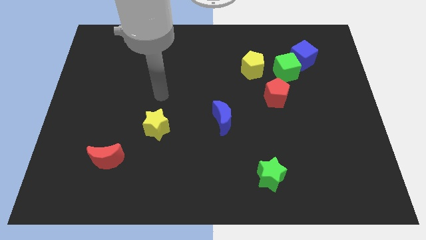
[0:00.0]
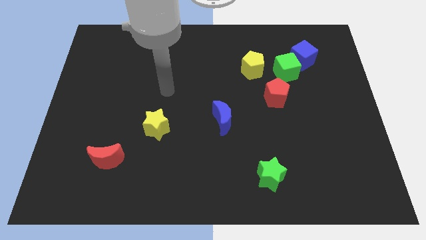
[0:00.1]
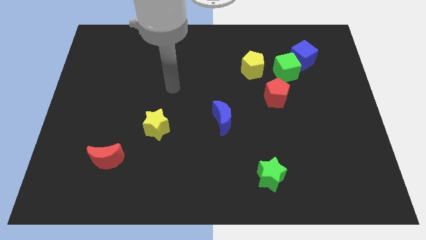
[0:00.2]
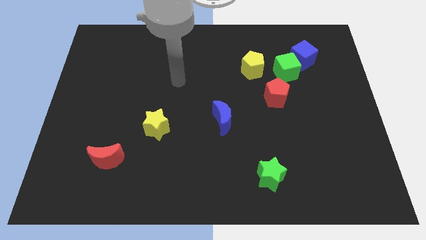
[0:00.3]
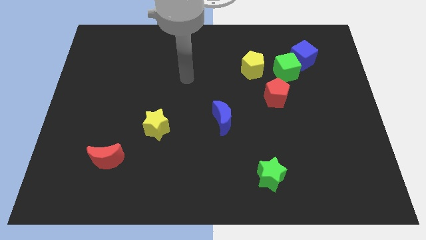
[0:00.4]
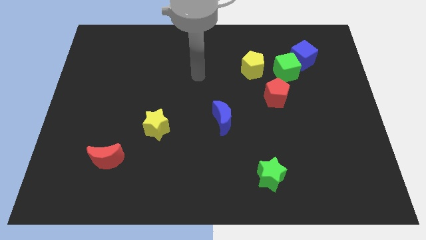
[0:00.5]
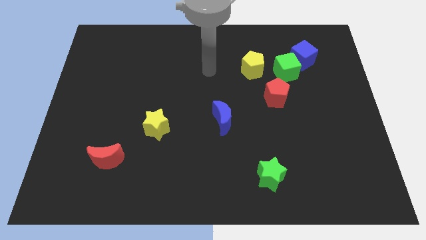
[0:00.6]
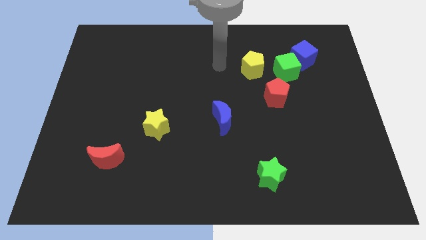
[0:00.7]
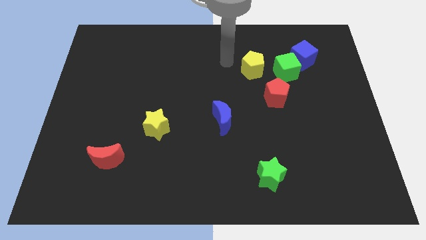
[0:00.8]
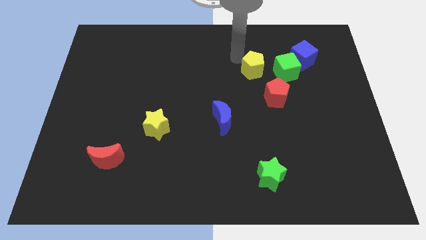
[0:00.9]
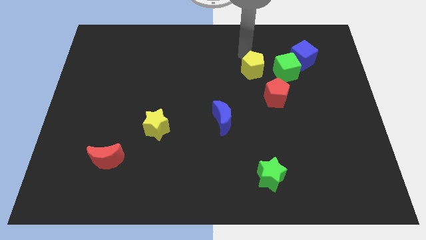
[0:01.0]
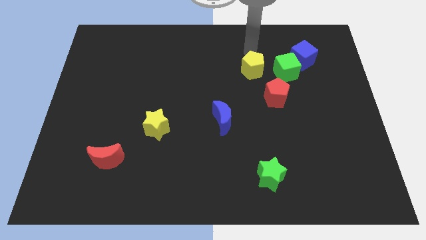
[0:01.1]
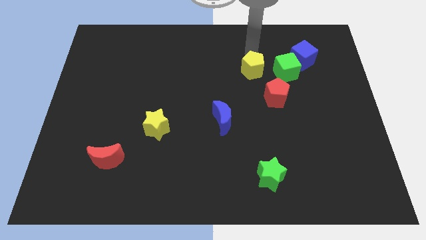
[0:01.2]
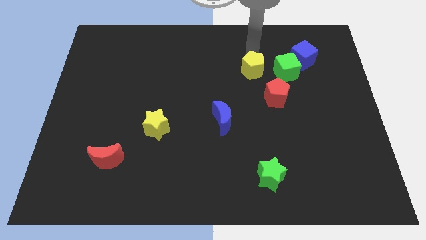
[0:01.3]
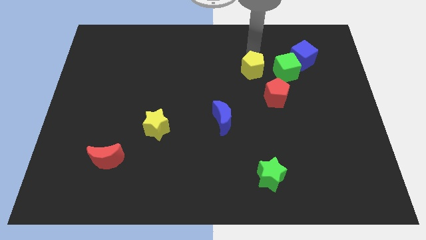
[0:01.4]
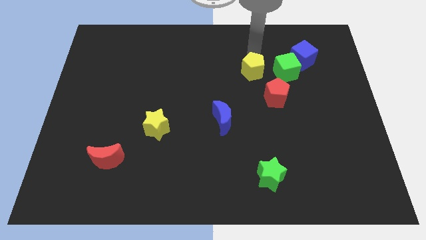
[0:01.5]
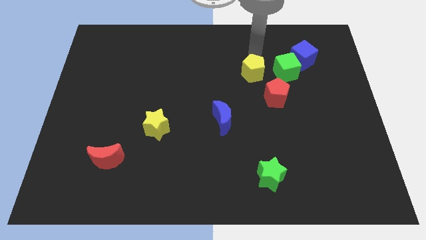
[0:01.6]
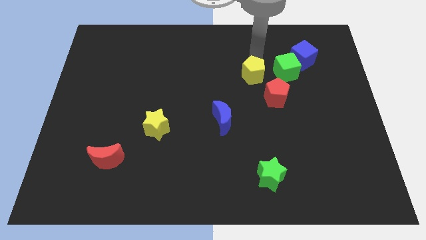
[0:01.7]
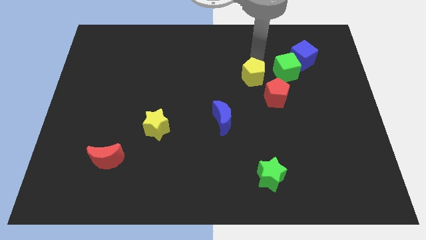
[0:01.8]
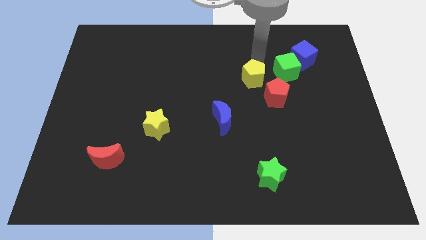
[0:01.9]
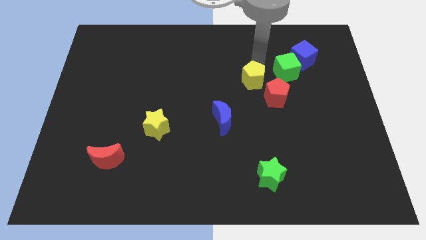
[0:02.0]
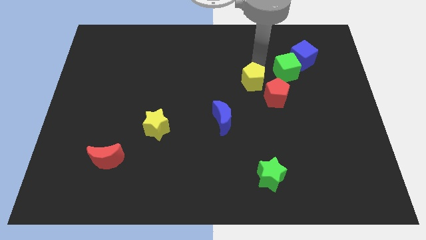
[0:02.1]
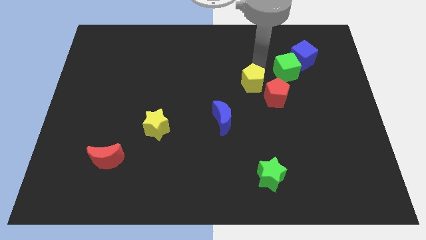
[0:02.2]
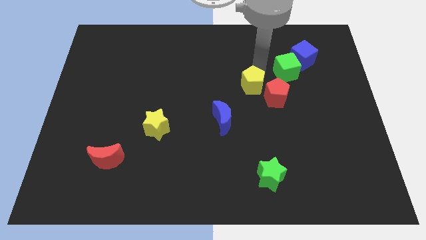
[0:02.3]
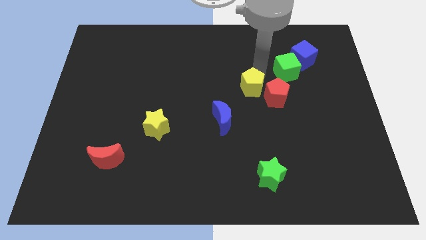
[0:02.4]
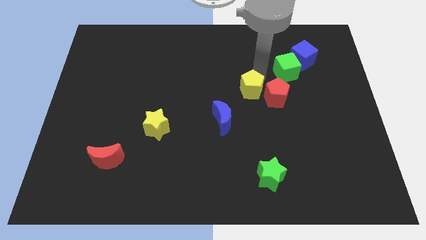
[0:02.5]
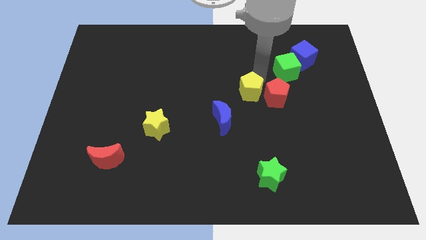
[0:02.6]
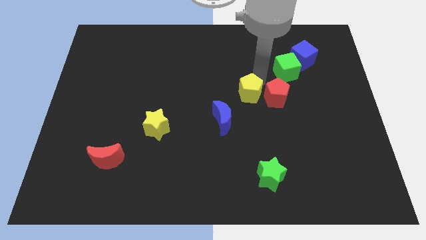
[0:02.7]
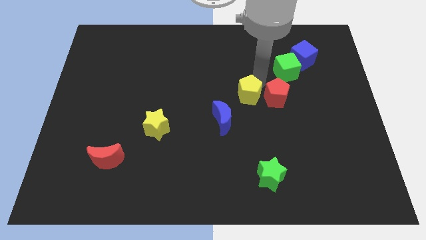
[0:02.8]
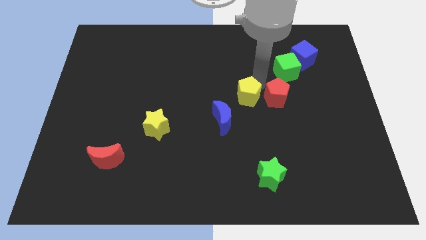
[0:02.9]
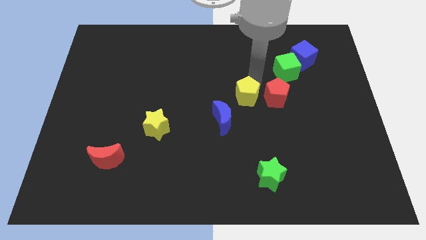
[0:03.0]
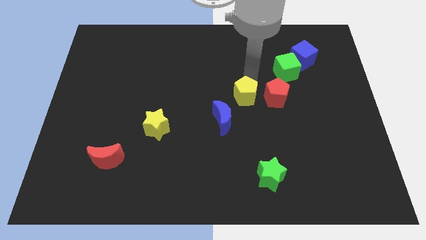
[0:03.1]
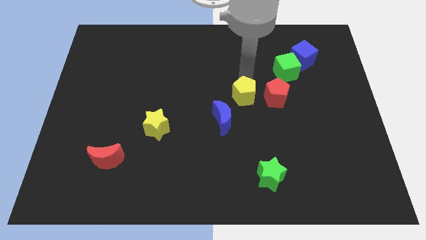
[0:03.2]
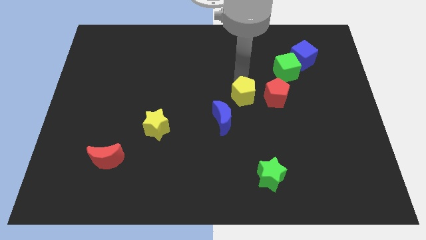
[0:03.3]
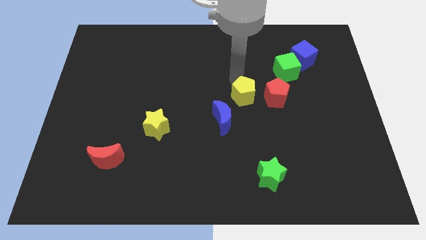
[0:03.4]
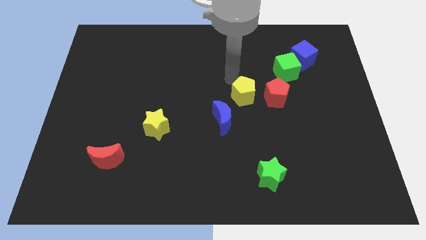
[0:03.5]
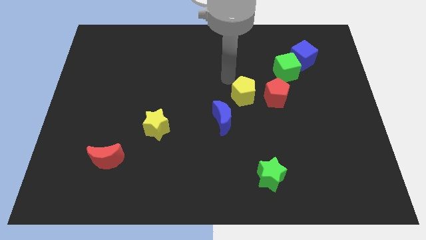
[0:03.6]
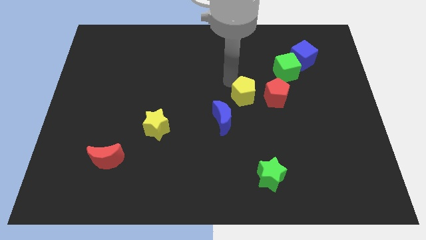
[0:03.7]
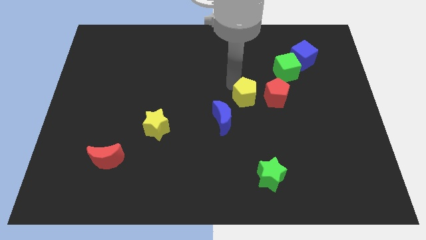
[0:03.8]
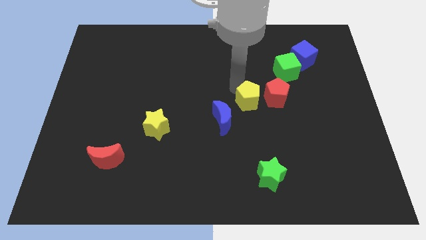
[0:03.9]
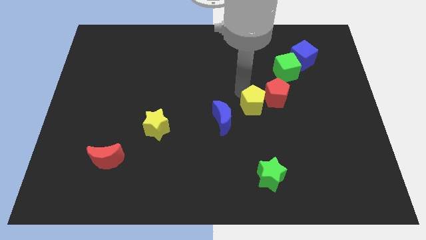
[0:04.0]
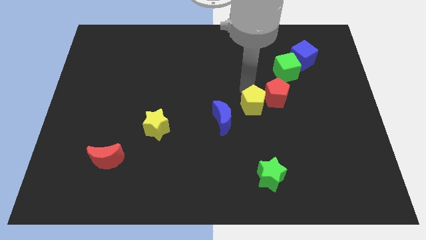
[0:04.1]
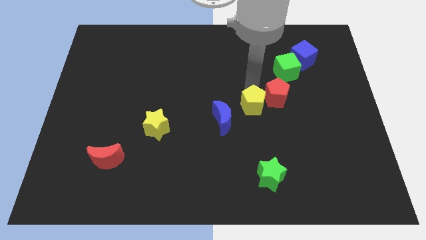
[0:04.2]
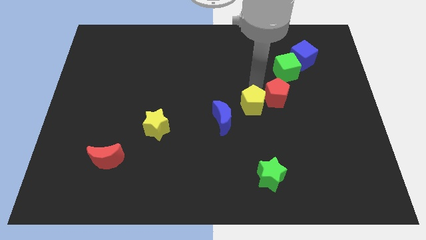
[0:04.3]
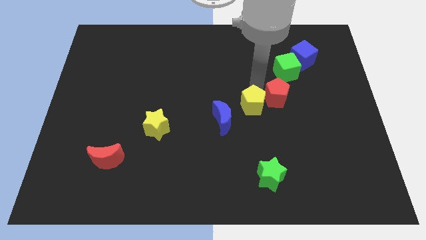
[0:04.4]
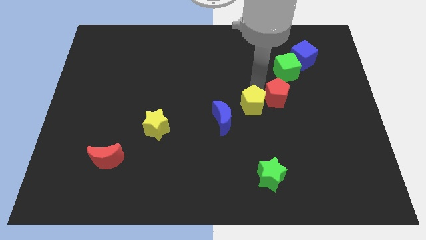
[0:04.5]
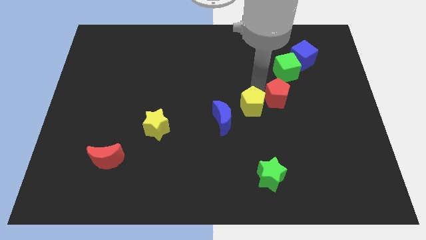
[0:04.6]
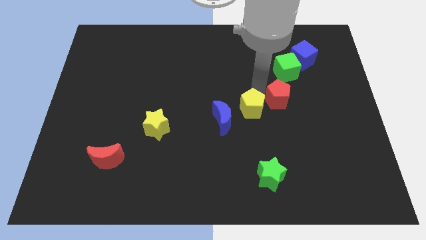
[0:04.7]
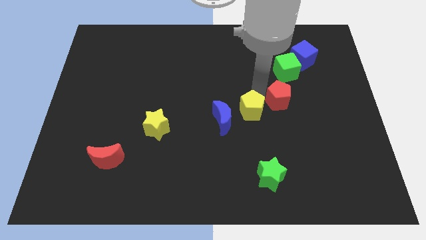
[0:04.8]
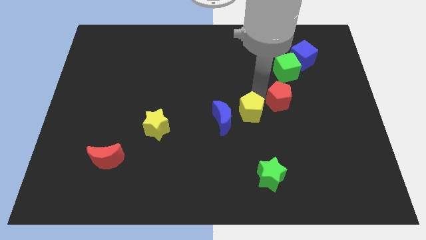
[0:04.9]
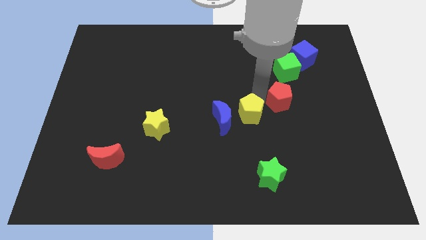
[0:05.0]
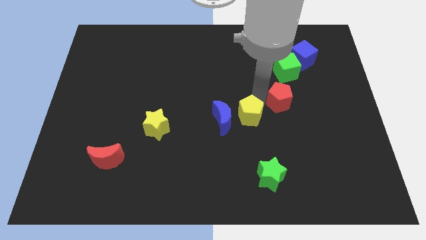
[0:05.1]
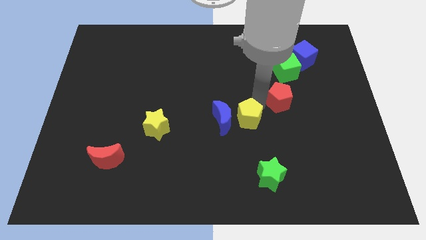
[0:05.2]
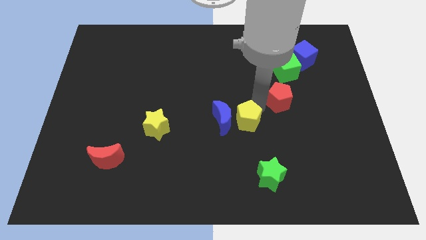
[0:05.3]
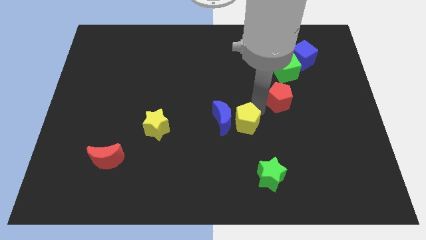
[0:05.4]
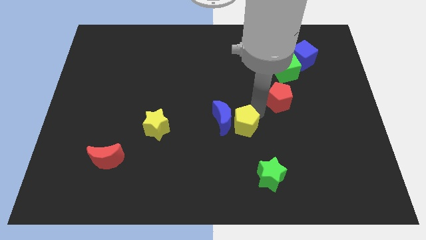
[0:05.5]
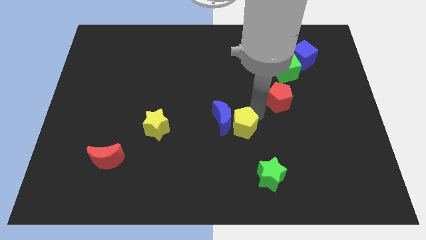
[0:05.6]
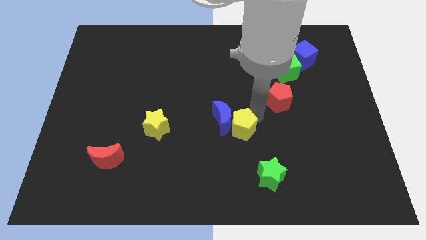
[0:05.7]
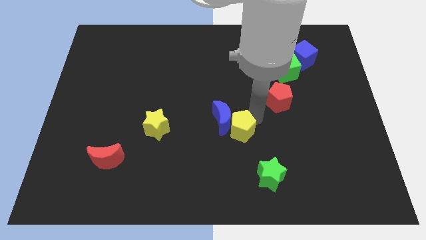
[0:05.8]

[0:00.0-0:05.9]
put the yellow pentagon to the bottom side of the blue moon

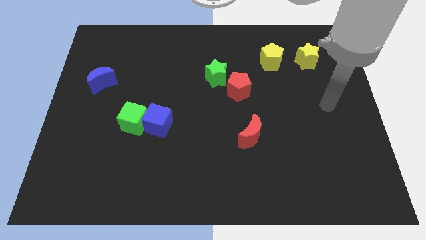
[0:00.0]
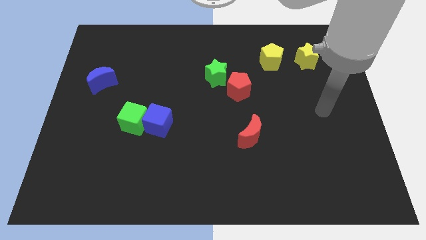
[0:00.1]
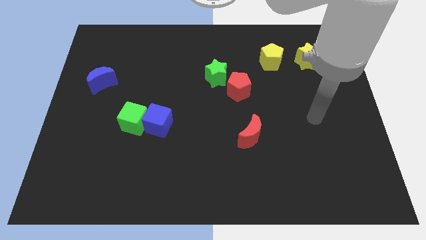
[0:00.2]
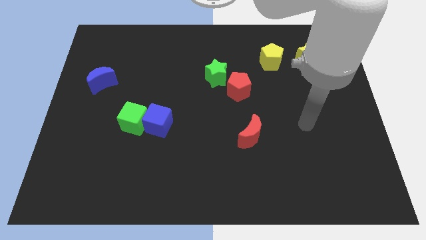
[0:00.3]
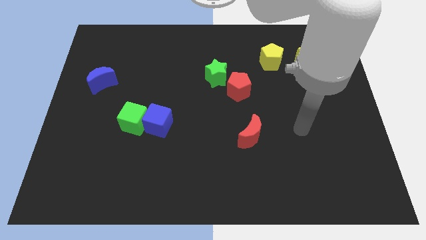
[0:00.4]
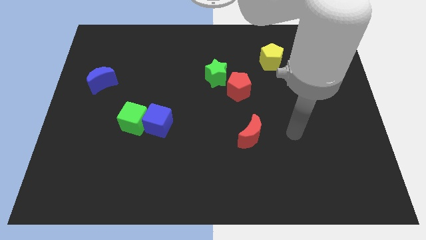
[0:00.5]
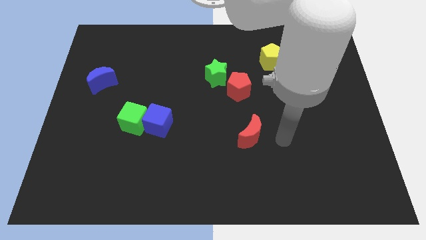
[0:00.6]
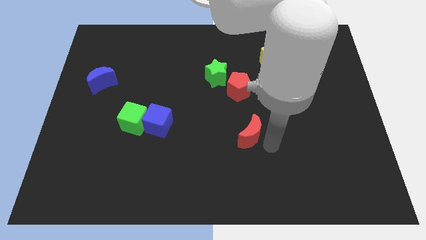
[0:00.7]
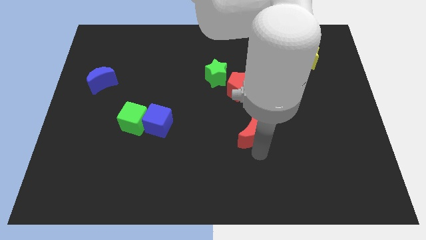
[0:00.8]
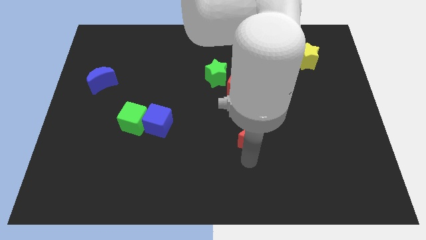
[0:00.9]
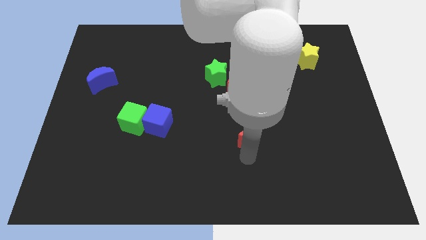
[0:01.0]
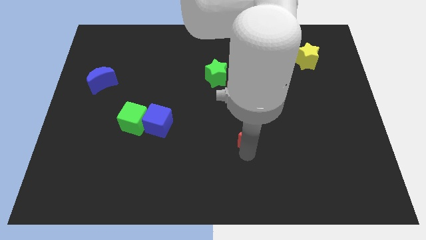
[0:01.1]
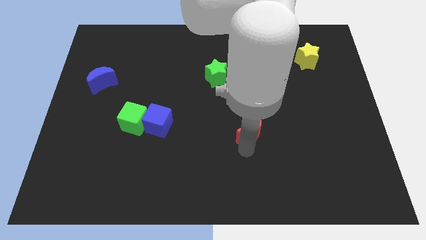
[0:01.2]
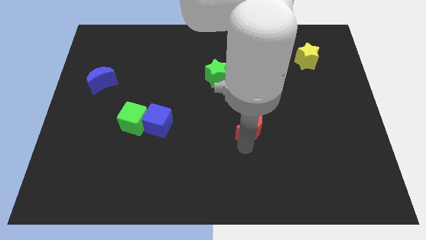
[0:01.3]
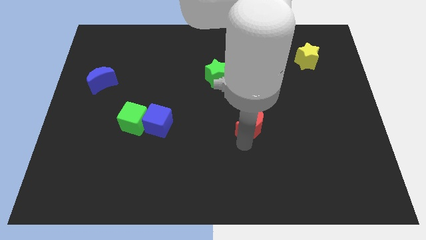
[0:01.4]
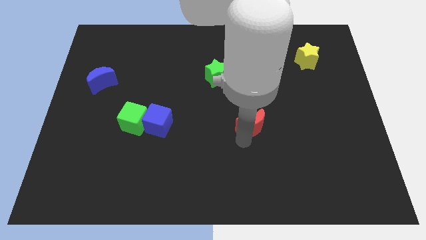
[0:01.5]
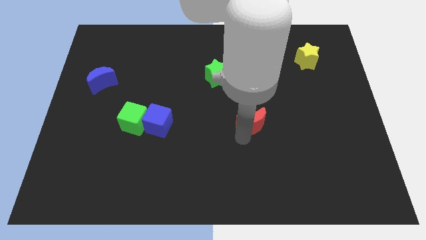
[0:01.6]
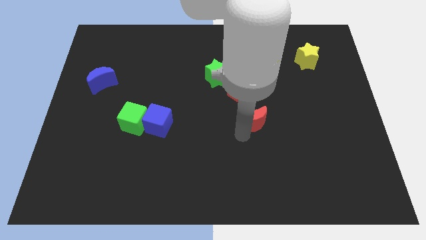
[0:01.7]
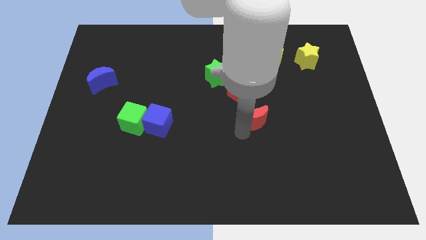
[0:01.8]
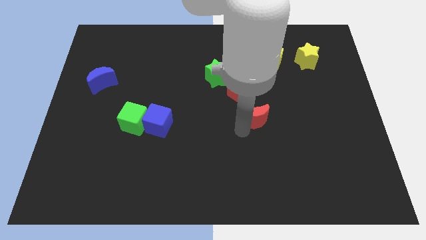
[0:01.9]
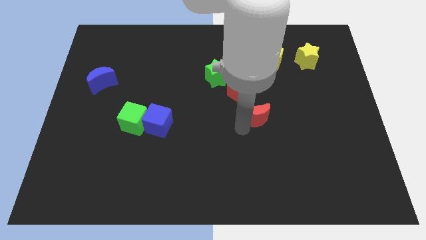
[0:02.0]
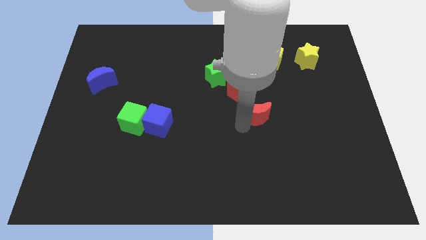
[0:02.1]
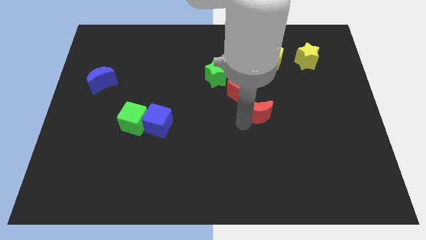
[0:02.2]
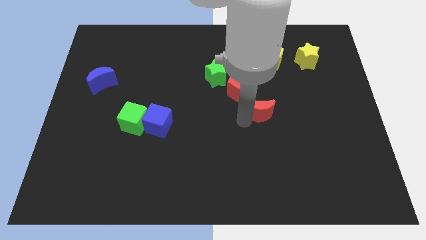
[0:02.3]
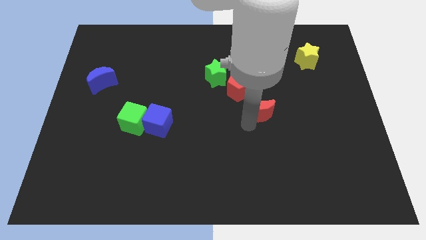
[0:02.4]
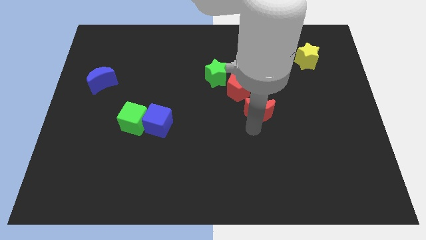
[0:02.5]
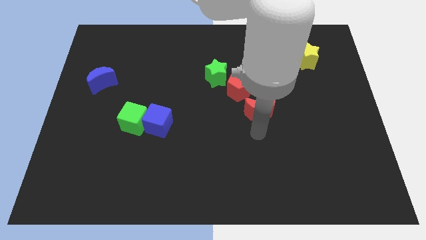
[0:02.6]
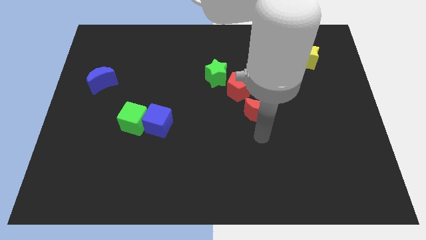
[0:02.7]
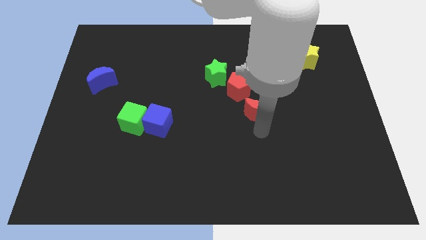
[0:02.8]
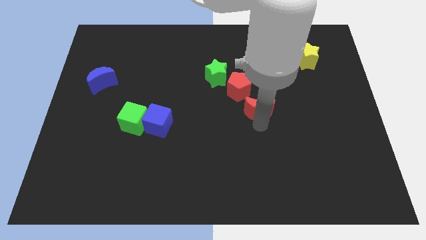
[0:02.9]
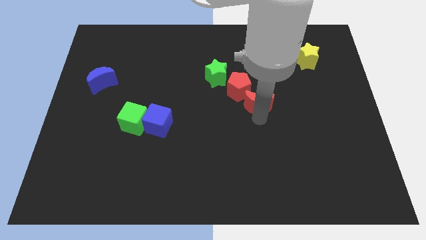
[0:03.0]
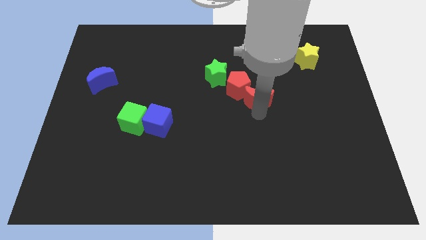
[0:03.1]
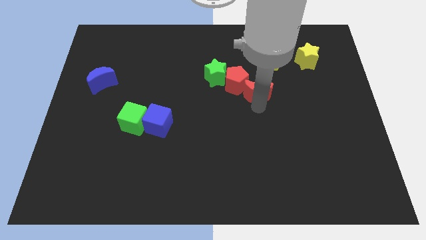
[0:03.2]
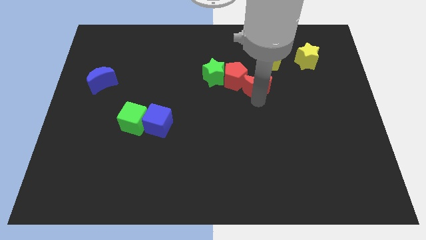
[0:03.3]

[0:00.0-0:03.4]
slide the red moon to the bottom left side of the yellow pentagon
